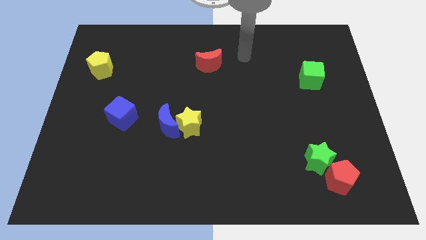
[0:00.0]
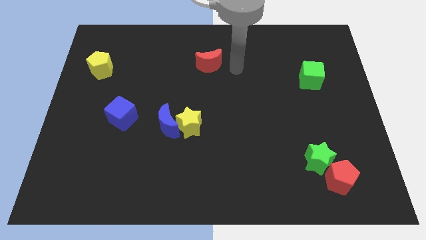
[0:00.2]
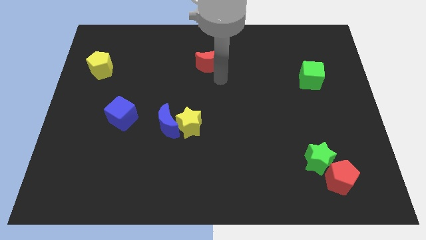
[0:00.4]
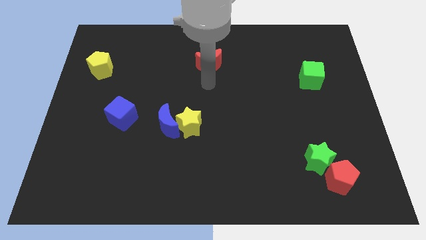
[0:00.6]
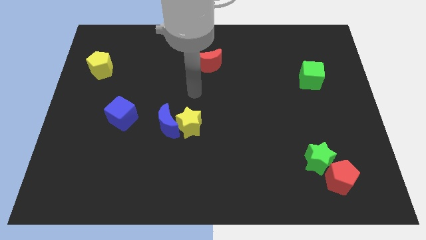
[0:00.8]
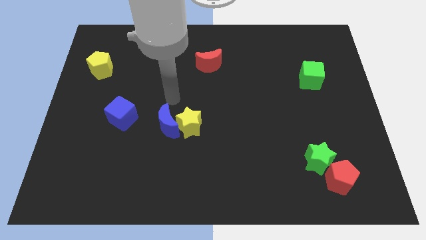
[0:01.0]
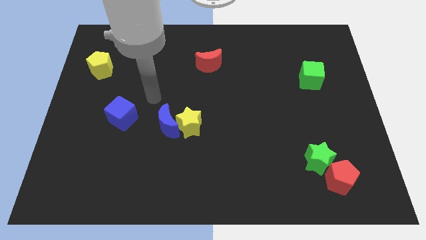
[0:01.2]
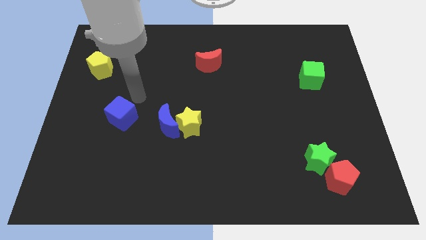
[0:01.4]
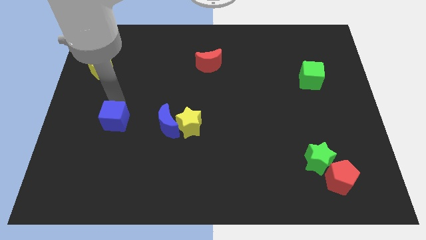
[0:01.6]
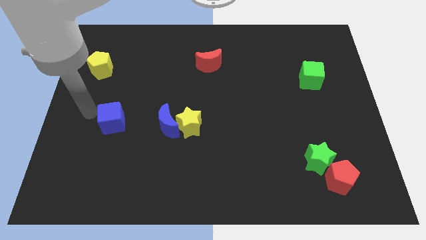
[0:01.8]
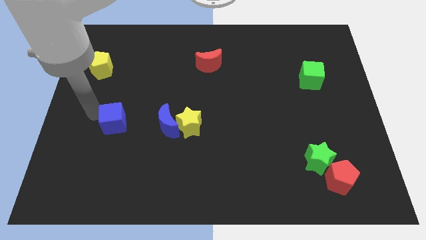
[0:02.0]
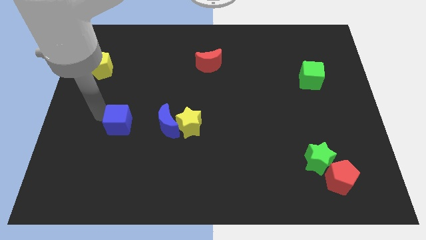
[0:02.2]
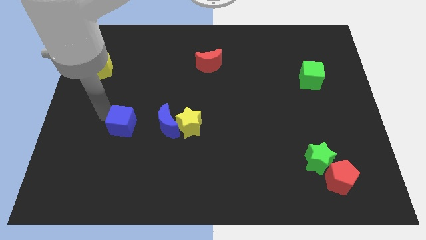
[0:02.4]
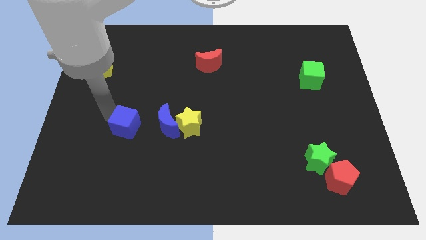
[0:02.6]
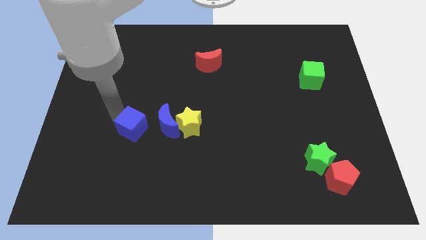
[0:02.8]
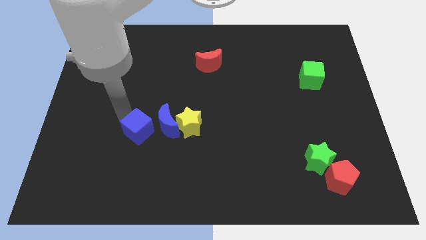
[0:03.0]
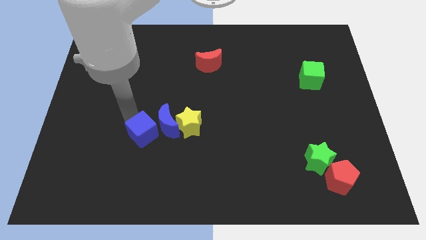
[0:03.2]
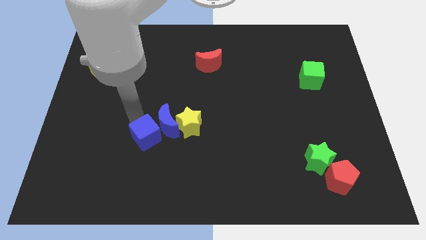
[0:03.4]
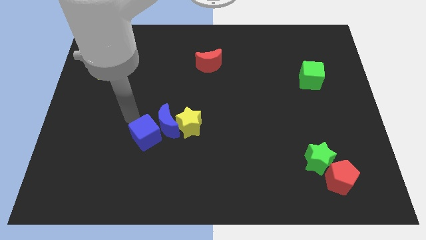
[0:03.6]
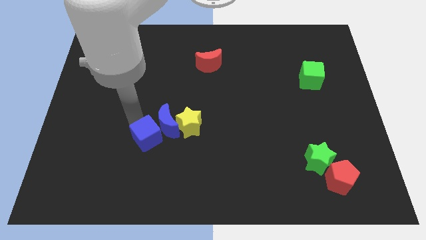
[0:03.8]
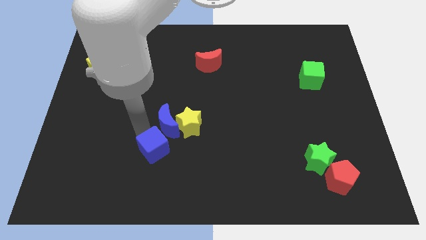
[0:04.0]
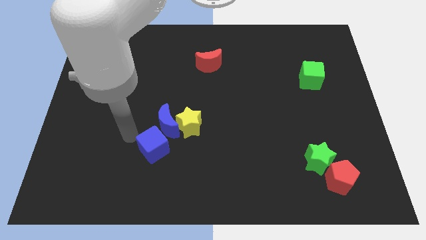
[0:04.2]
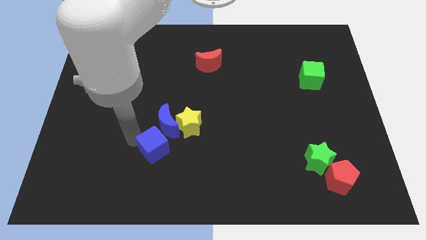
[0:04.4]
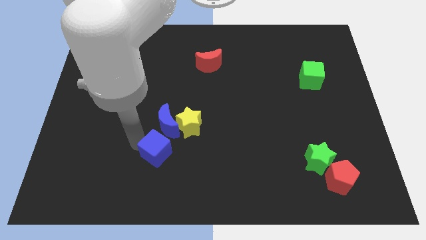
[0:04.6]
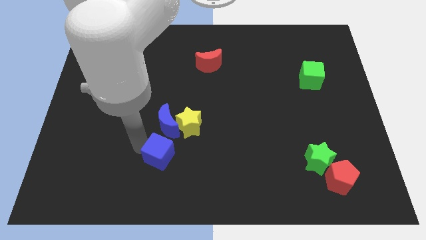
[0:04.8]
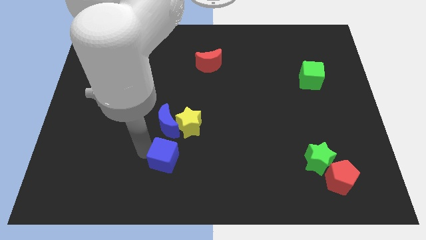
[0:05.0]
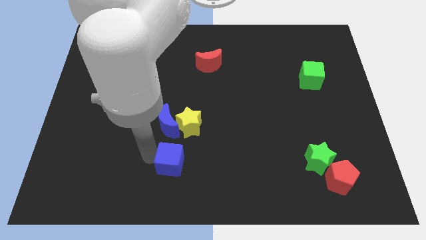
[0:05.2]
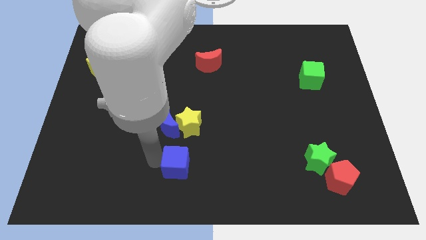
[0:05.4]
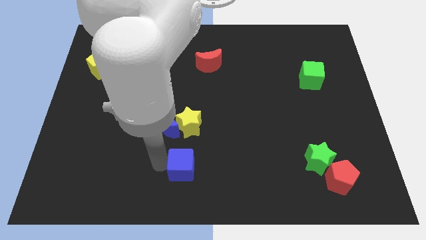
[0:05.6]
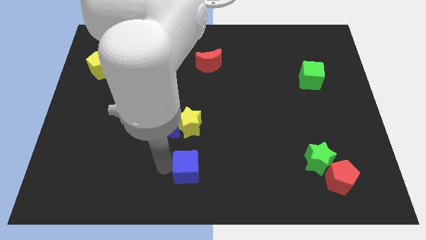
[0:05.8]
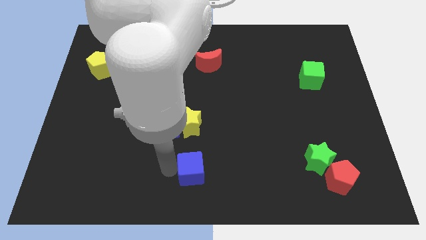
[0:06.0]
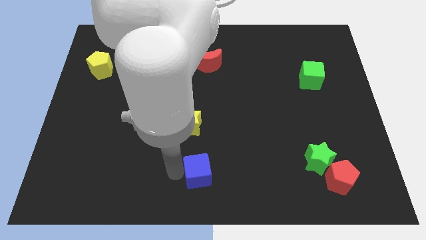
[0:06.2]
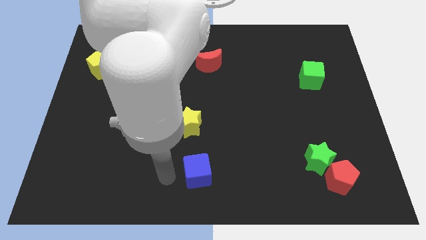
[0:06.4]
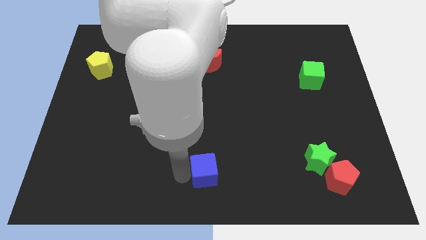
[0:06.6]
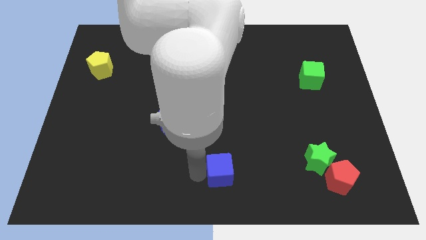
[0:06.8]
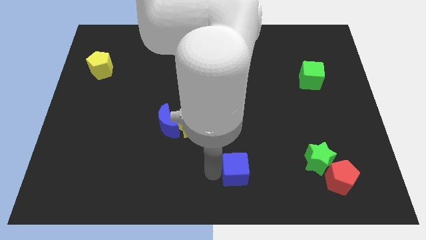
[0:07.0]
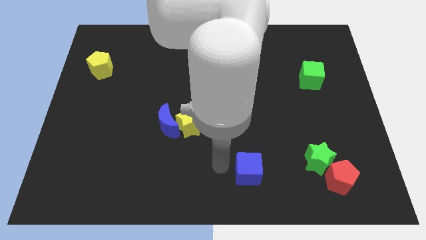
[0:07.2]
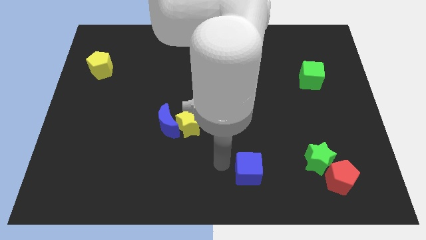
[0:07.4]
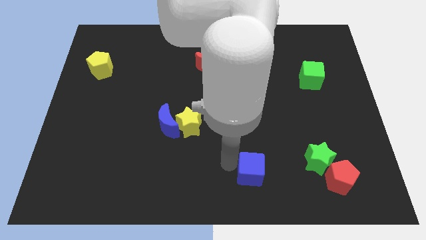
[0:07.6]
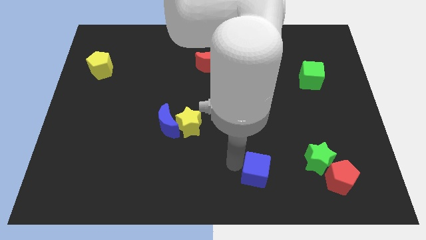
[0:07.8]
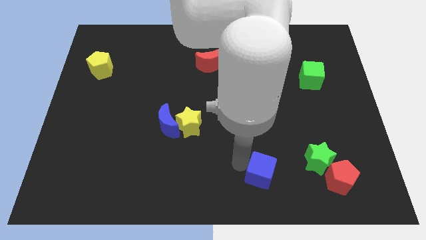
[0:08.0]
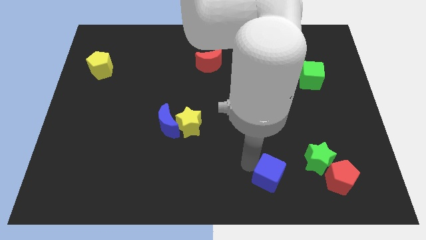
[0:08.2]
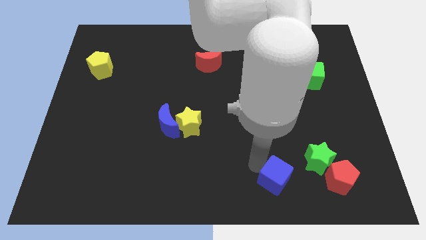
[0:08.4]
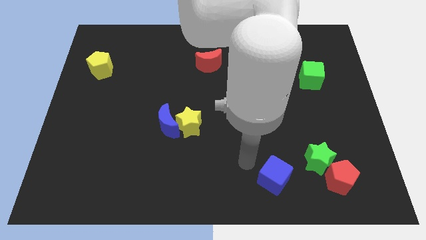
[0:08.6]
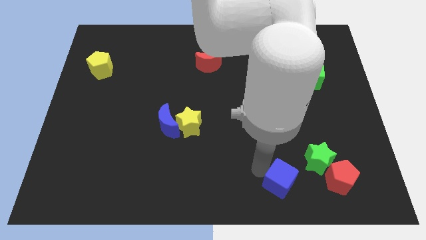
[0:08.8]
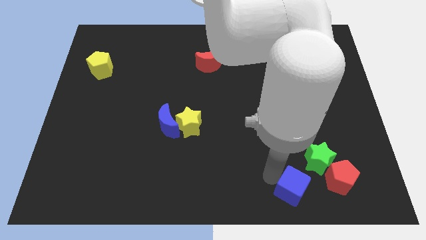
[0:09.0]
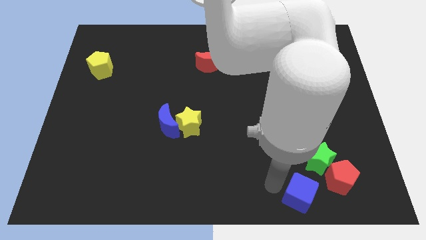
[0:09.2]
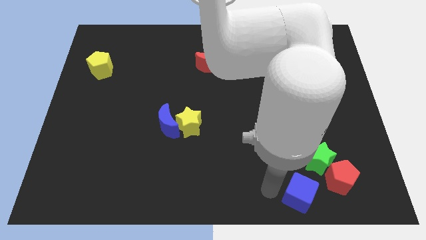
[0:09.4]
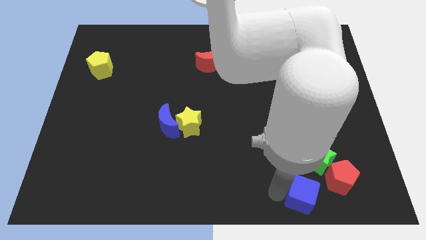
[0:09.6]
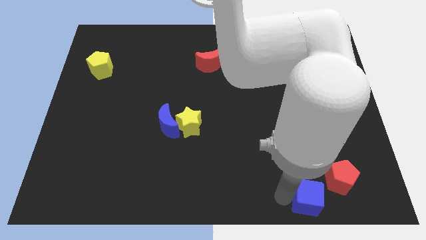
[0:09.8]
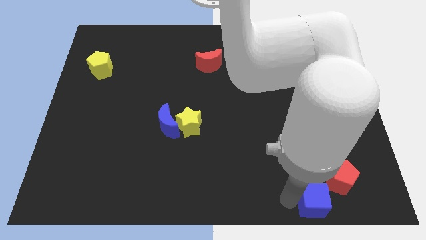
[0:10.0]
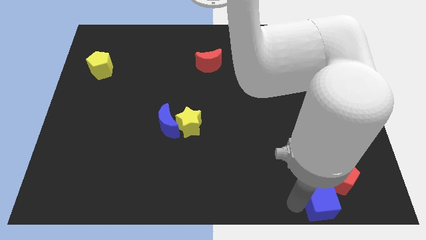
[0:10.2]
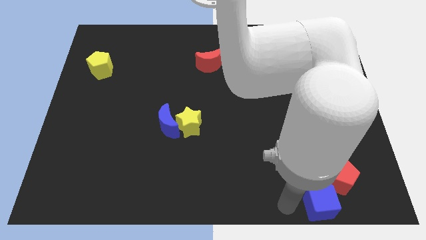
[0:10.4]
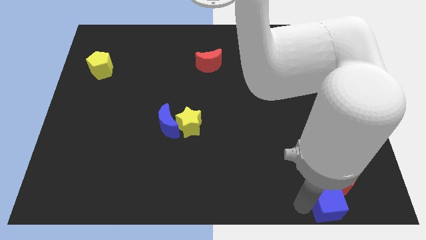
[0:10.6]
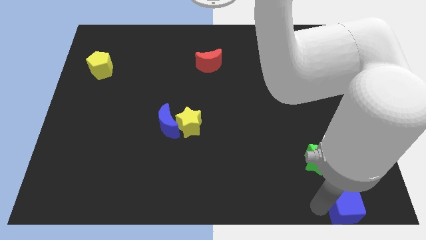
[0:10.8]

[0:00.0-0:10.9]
push the blue cube to the bottom right corner

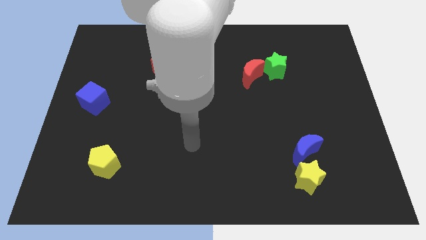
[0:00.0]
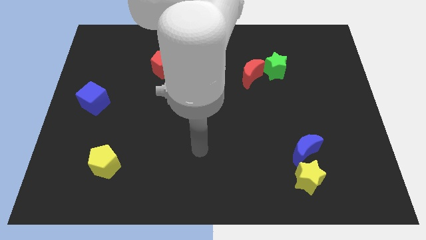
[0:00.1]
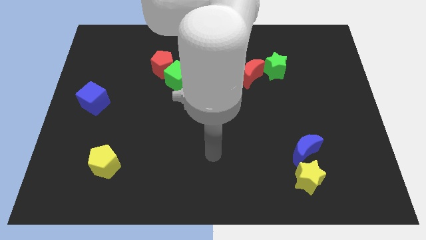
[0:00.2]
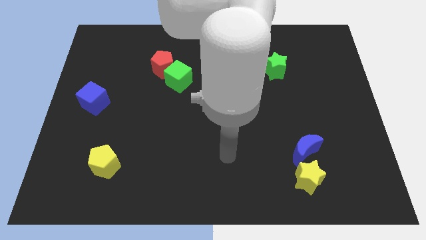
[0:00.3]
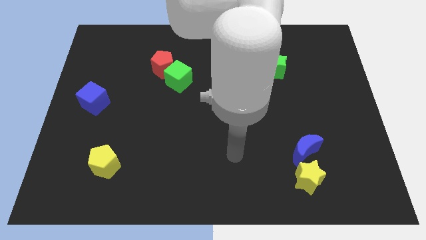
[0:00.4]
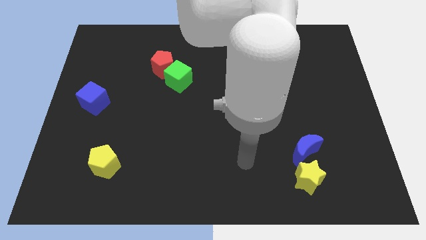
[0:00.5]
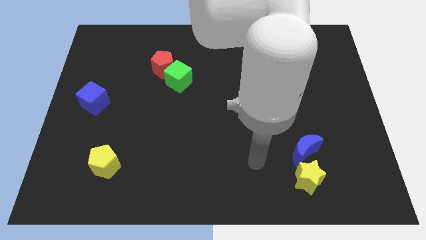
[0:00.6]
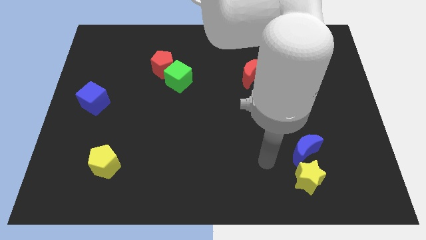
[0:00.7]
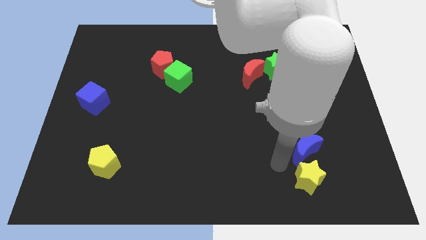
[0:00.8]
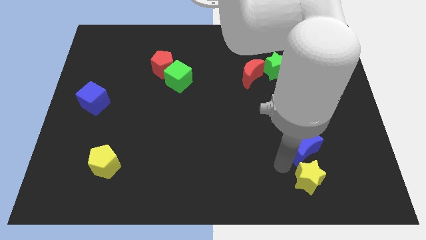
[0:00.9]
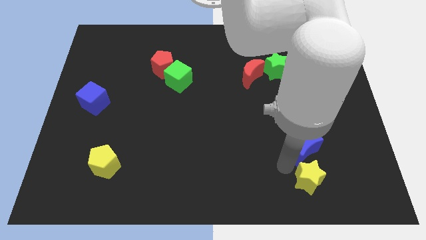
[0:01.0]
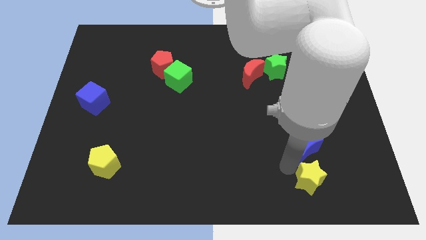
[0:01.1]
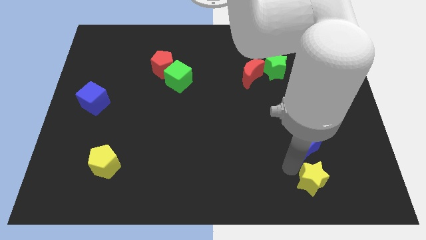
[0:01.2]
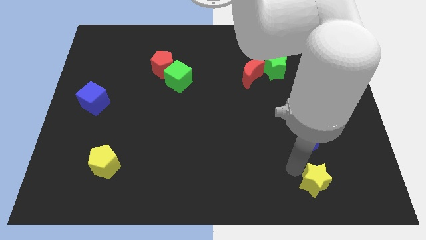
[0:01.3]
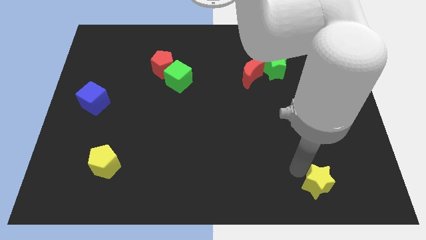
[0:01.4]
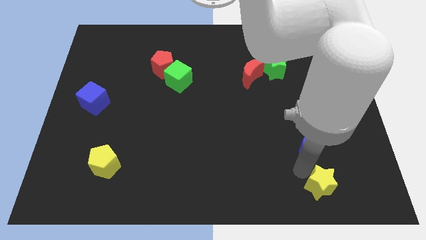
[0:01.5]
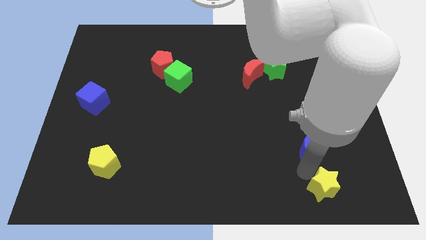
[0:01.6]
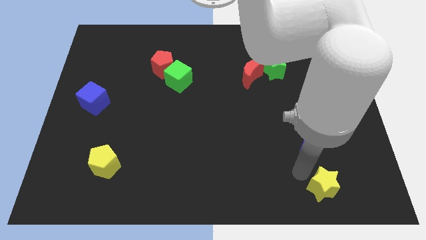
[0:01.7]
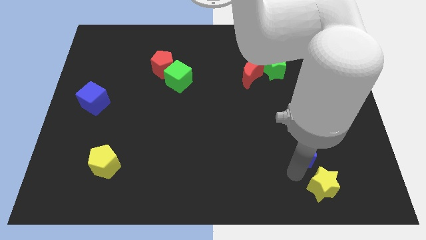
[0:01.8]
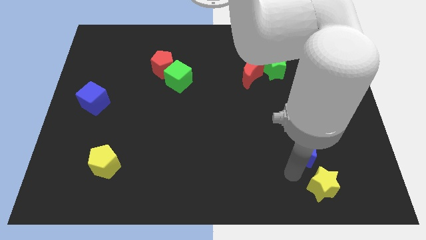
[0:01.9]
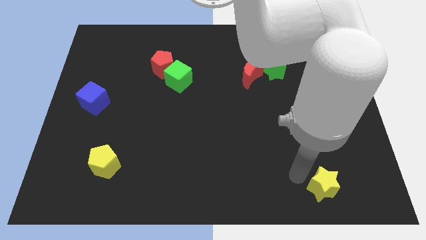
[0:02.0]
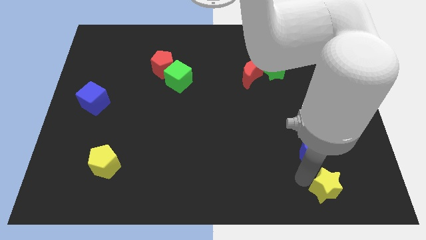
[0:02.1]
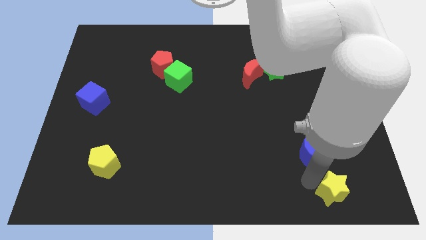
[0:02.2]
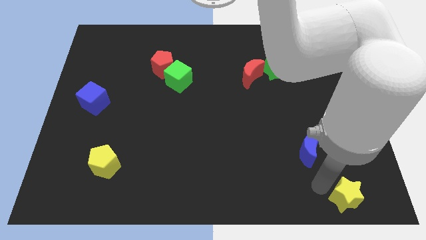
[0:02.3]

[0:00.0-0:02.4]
push the yellow star to the bottom right corner
